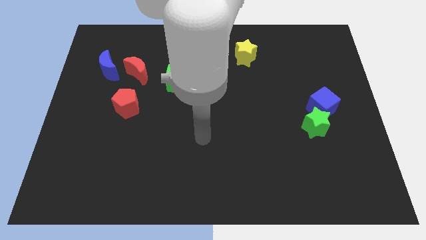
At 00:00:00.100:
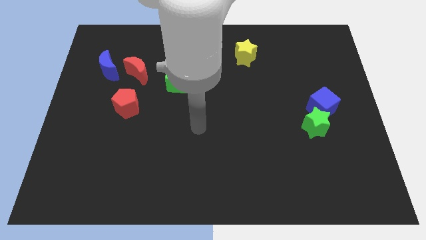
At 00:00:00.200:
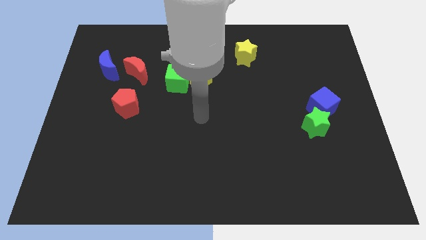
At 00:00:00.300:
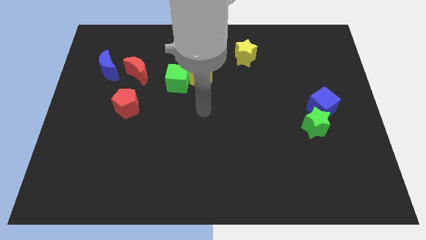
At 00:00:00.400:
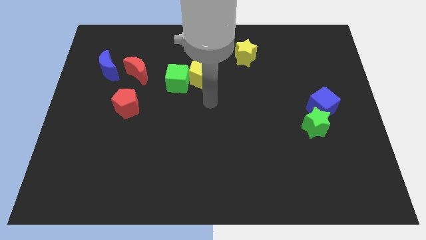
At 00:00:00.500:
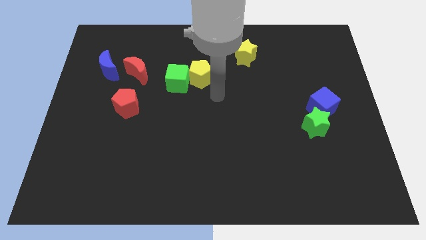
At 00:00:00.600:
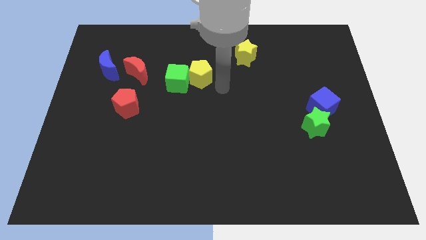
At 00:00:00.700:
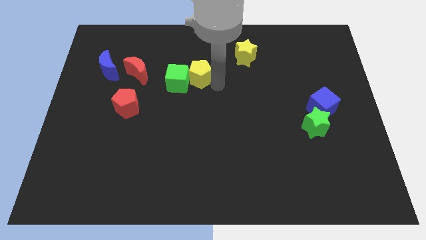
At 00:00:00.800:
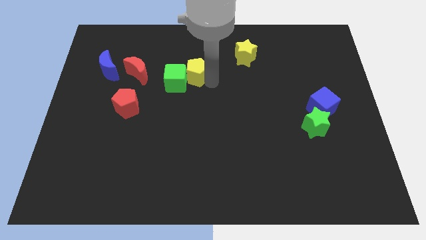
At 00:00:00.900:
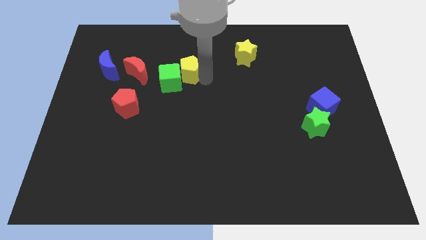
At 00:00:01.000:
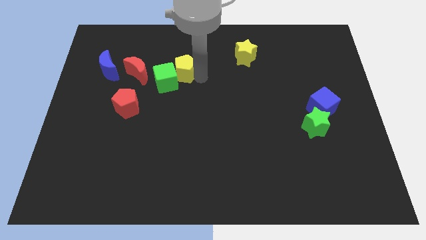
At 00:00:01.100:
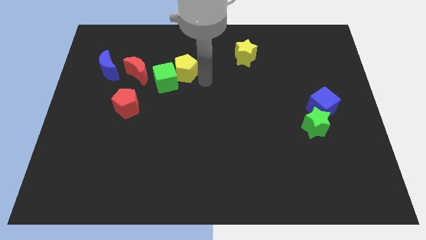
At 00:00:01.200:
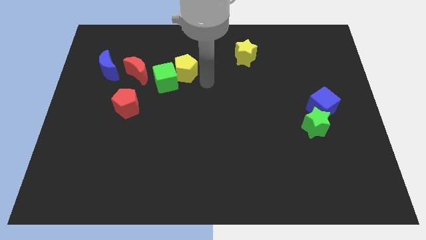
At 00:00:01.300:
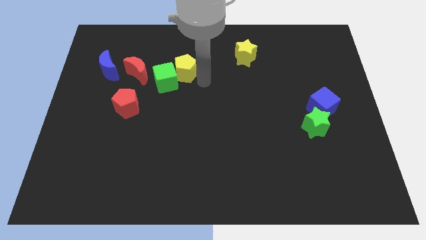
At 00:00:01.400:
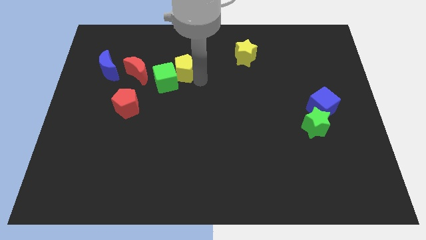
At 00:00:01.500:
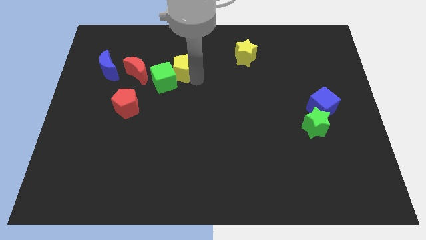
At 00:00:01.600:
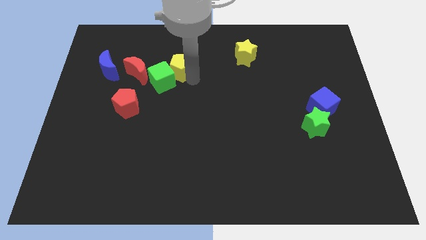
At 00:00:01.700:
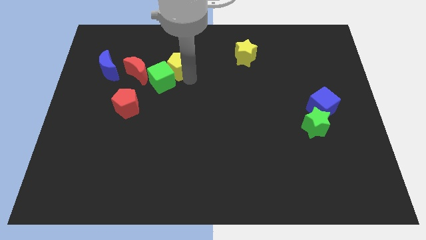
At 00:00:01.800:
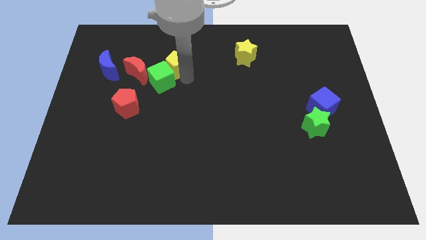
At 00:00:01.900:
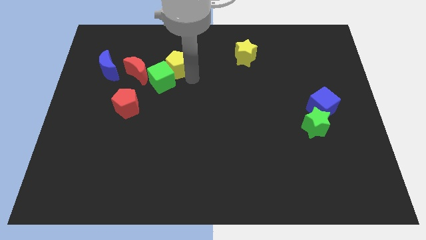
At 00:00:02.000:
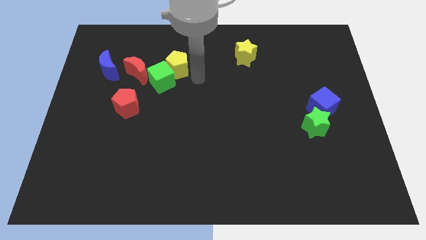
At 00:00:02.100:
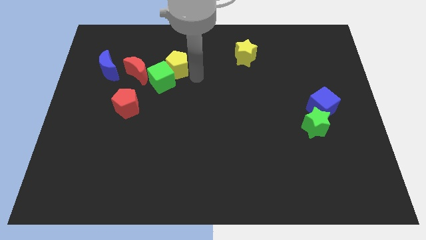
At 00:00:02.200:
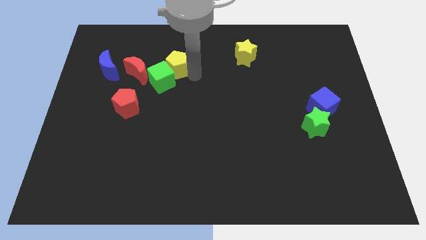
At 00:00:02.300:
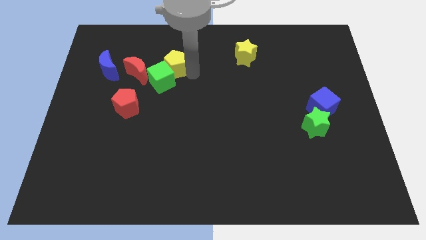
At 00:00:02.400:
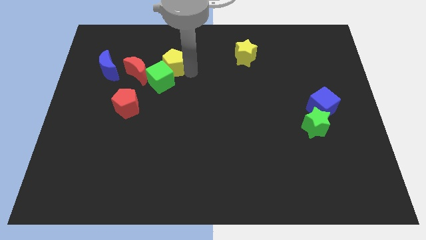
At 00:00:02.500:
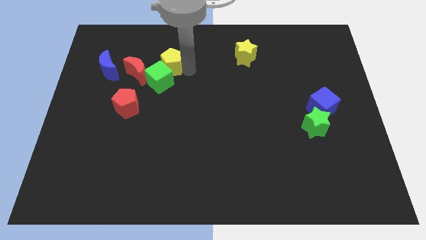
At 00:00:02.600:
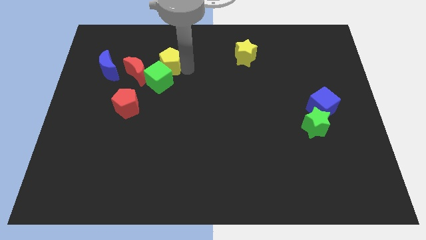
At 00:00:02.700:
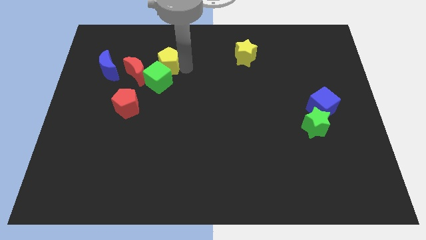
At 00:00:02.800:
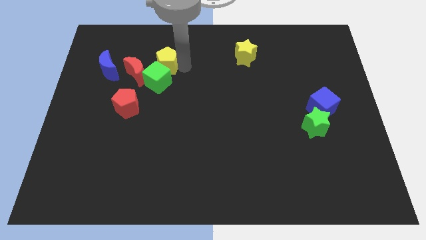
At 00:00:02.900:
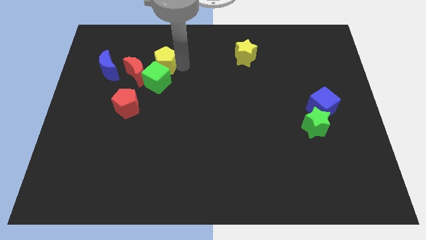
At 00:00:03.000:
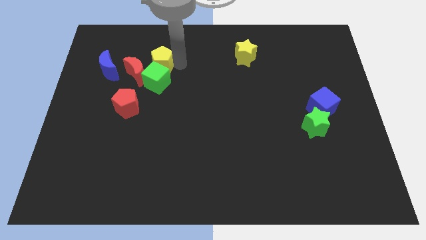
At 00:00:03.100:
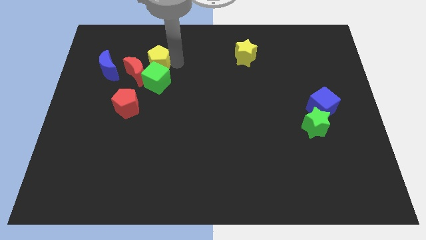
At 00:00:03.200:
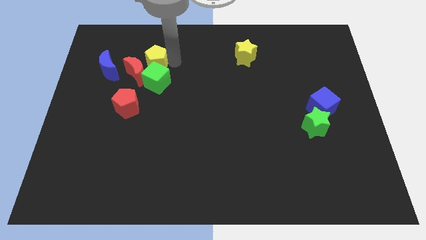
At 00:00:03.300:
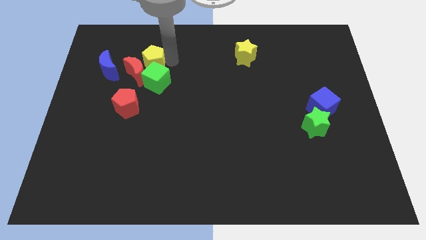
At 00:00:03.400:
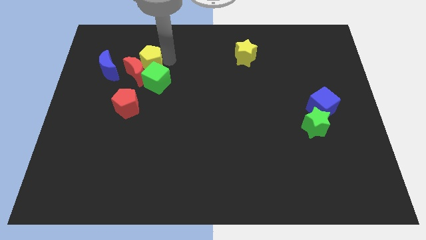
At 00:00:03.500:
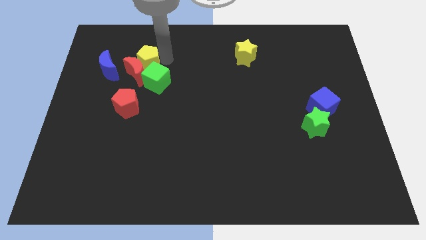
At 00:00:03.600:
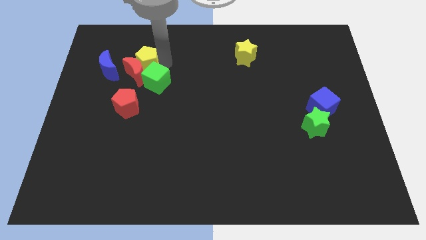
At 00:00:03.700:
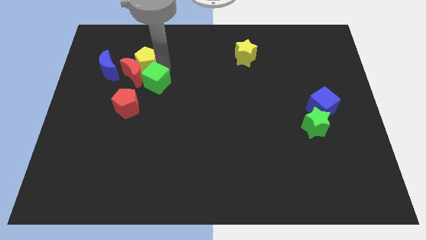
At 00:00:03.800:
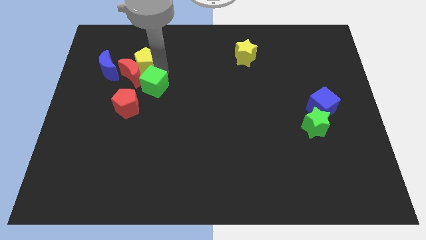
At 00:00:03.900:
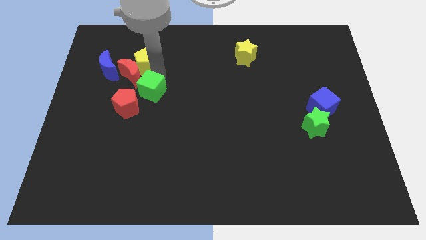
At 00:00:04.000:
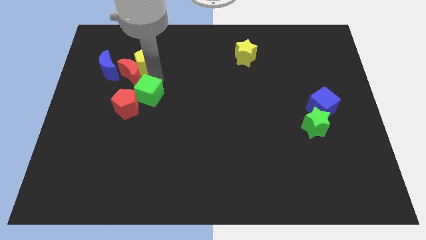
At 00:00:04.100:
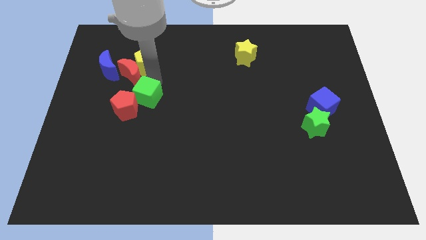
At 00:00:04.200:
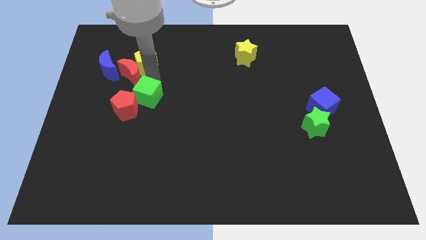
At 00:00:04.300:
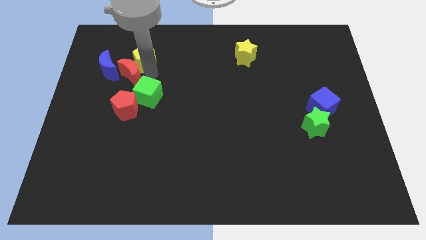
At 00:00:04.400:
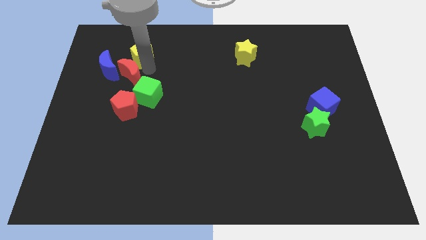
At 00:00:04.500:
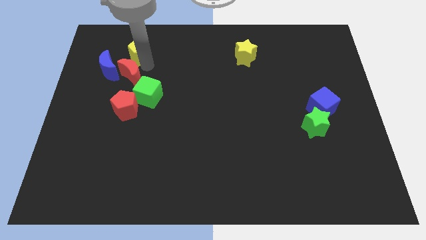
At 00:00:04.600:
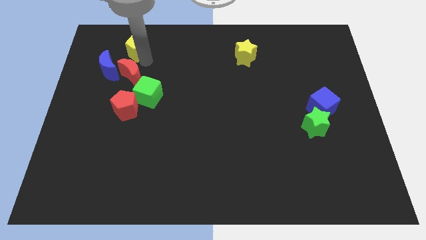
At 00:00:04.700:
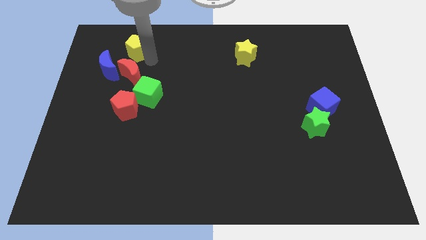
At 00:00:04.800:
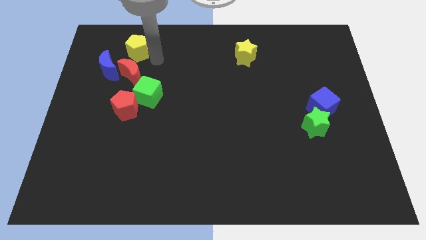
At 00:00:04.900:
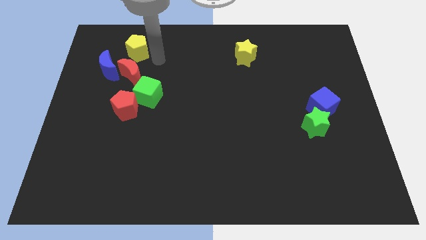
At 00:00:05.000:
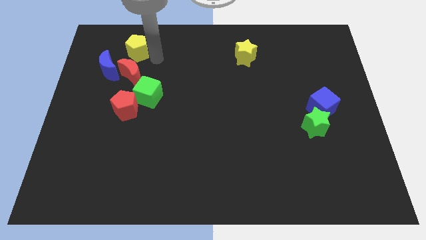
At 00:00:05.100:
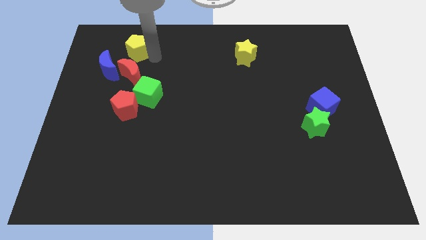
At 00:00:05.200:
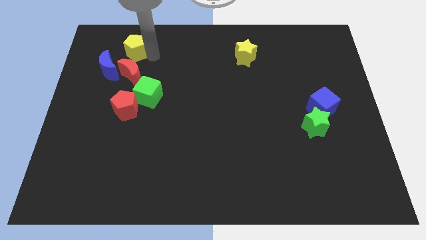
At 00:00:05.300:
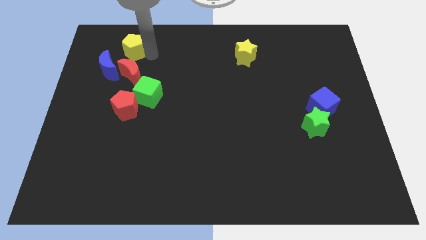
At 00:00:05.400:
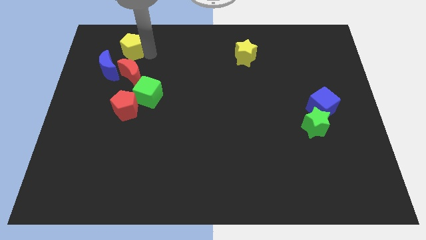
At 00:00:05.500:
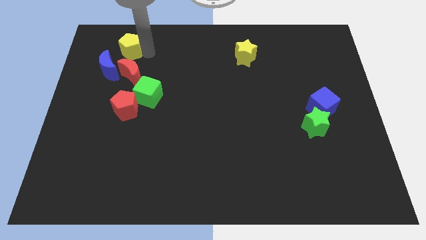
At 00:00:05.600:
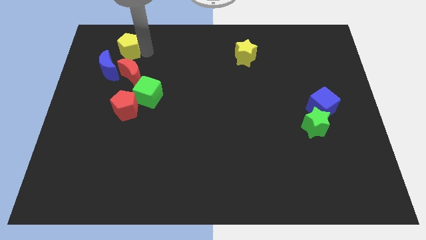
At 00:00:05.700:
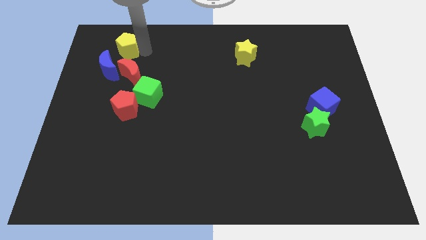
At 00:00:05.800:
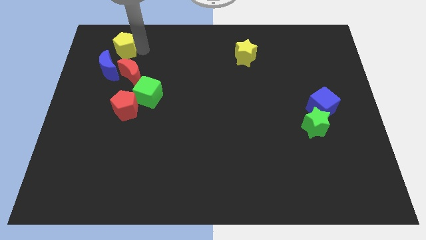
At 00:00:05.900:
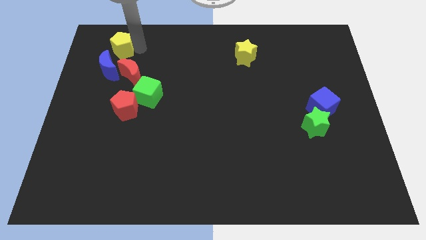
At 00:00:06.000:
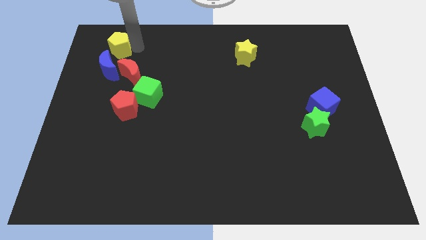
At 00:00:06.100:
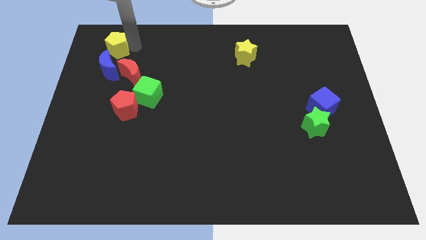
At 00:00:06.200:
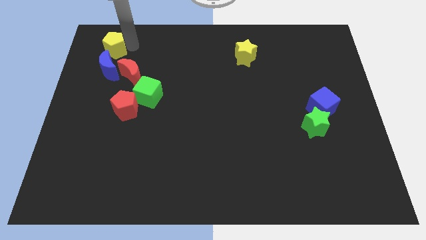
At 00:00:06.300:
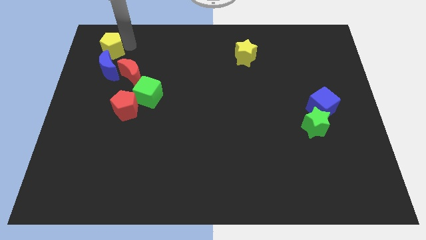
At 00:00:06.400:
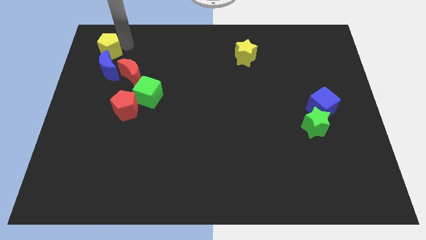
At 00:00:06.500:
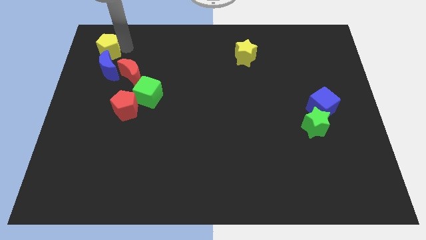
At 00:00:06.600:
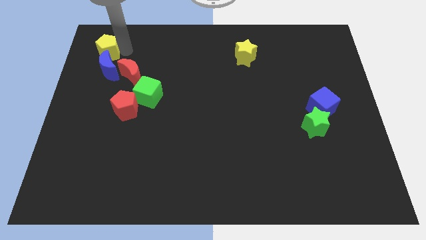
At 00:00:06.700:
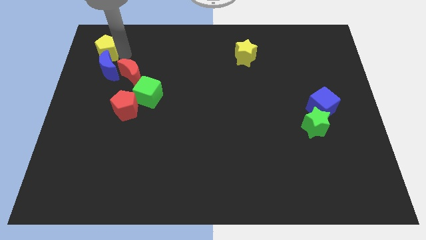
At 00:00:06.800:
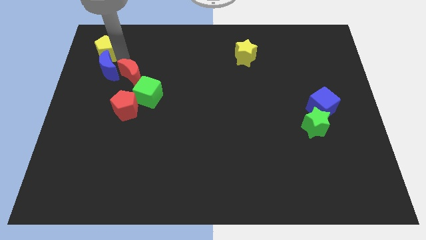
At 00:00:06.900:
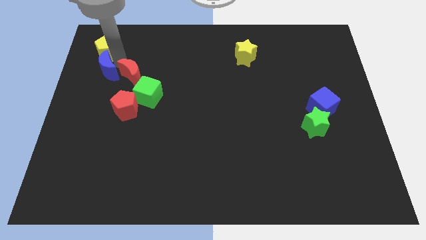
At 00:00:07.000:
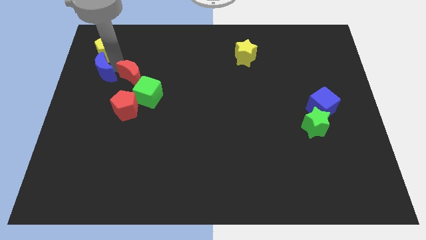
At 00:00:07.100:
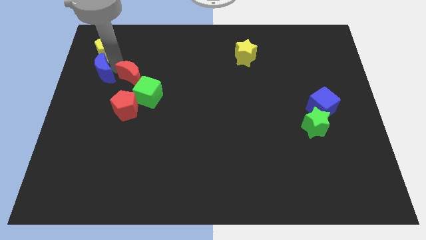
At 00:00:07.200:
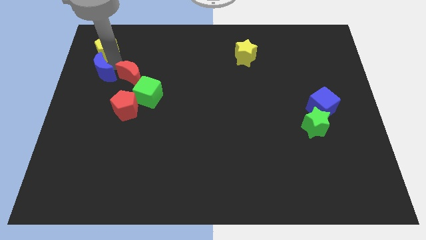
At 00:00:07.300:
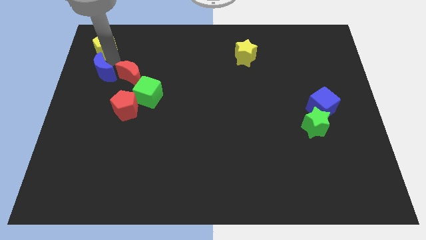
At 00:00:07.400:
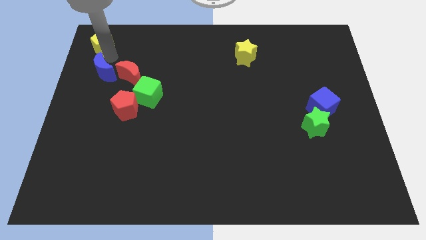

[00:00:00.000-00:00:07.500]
slide the yellow pentagon to the top left corner
